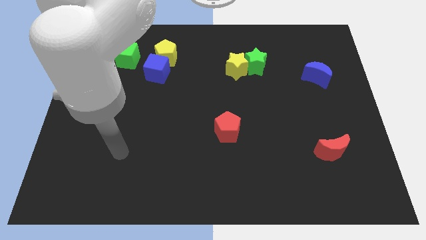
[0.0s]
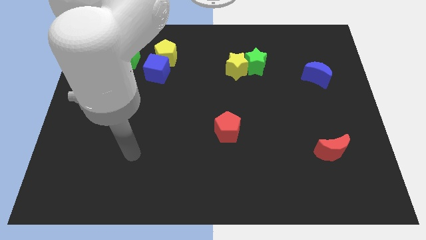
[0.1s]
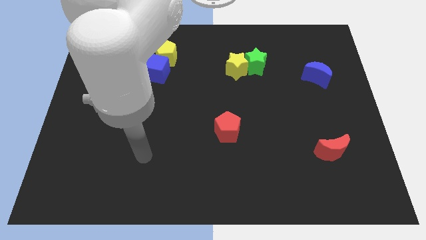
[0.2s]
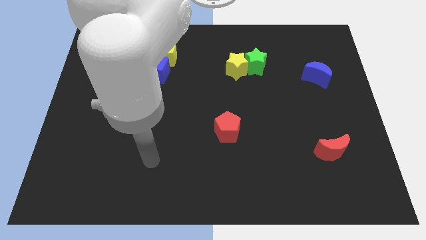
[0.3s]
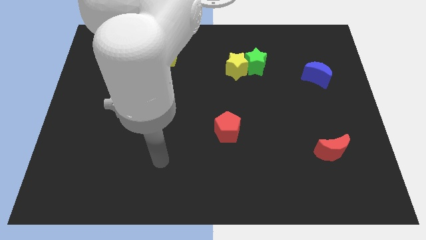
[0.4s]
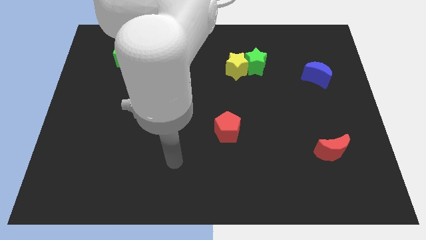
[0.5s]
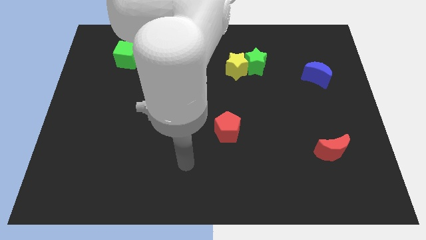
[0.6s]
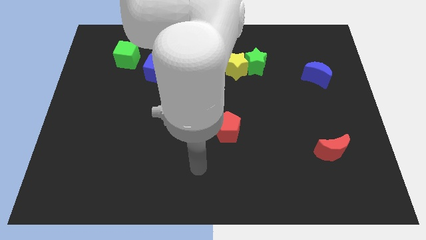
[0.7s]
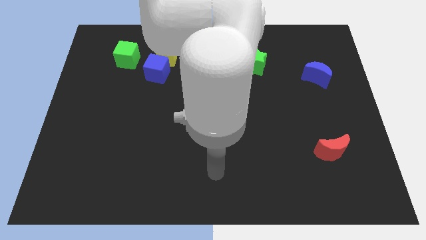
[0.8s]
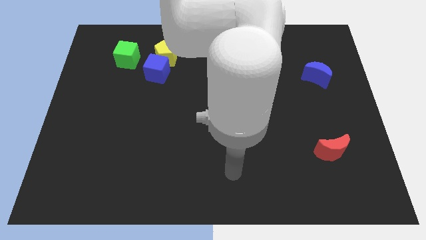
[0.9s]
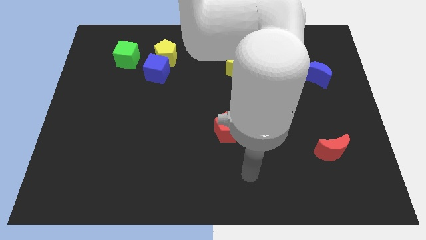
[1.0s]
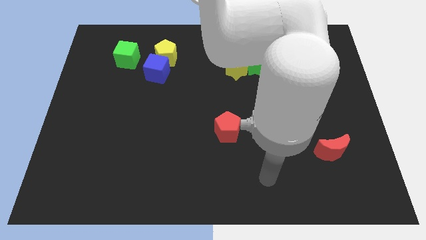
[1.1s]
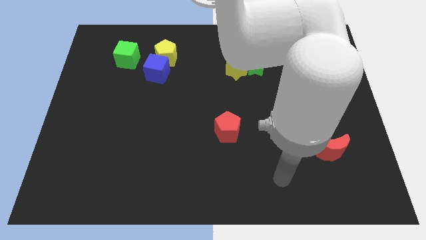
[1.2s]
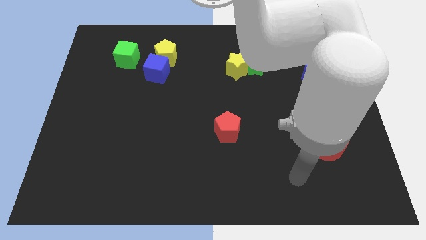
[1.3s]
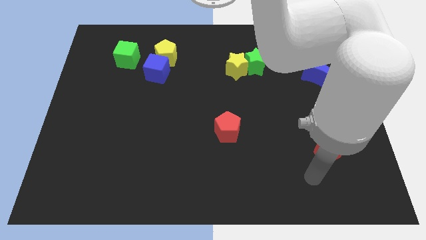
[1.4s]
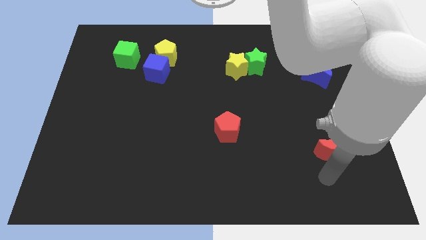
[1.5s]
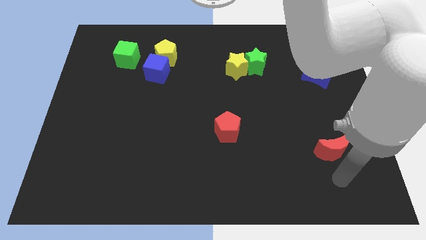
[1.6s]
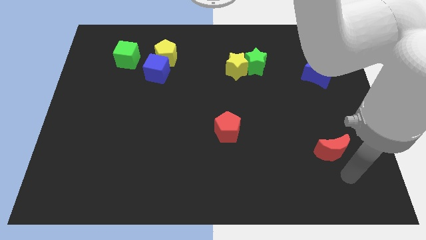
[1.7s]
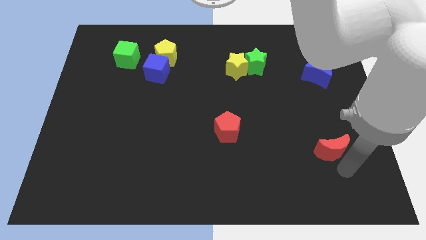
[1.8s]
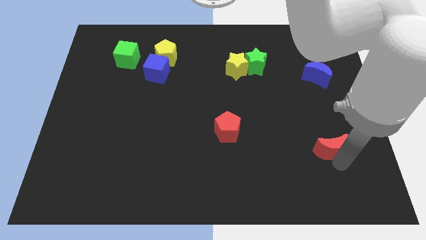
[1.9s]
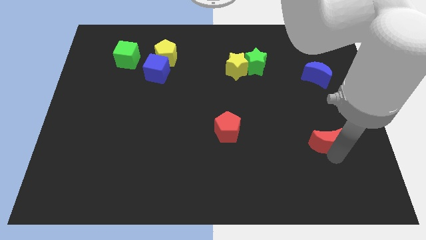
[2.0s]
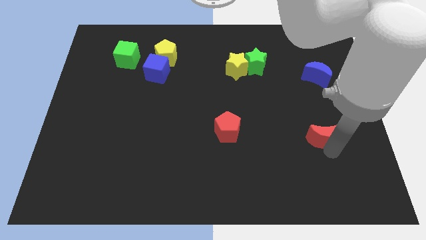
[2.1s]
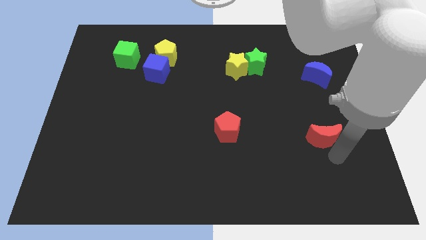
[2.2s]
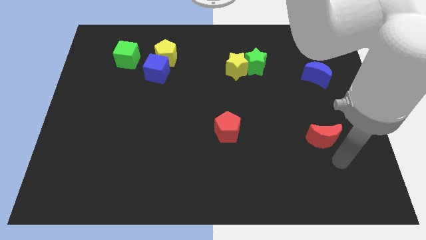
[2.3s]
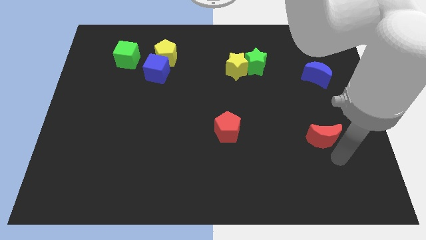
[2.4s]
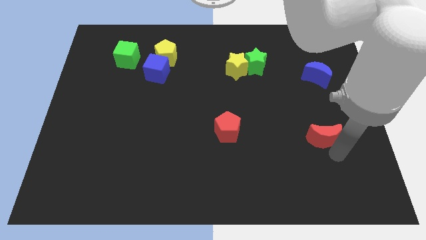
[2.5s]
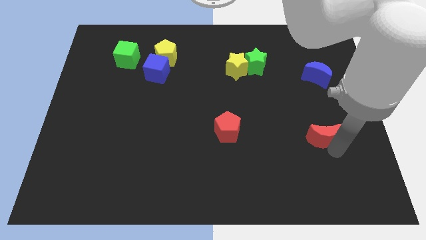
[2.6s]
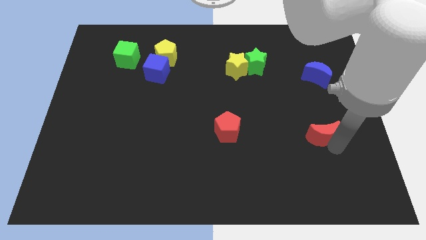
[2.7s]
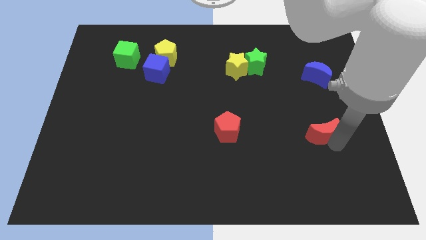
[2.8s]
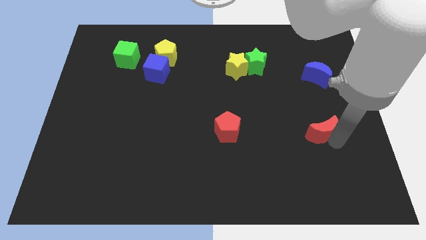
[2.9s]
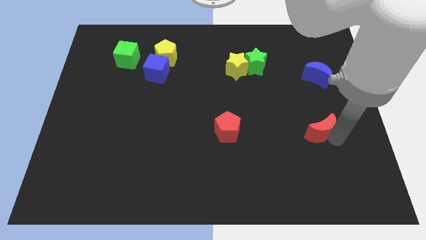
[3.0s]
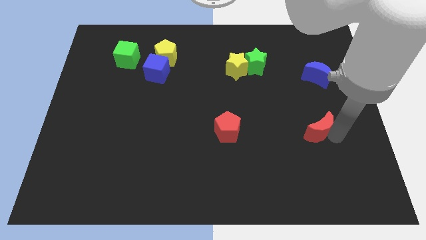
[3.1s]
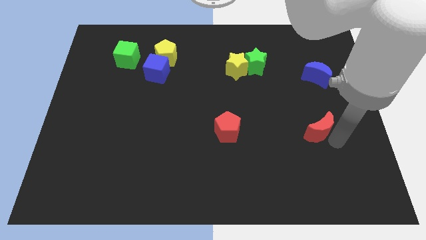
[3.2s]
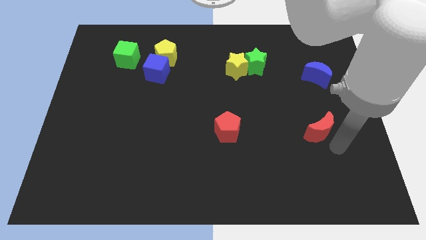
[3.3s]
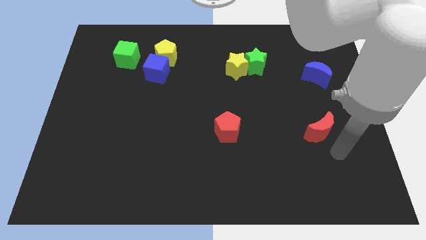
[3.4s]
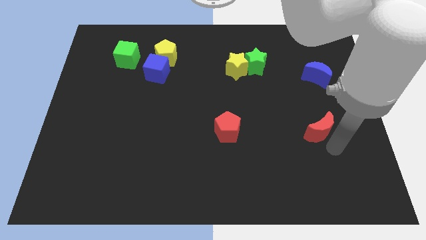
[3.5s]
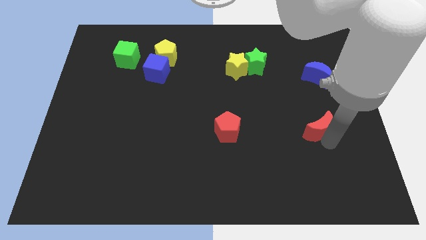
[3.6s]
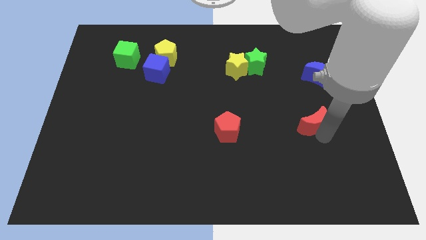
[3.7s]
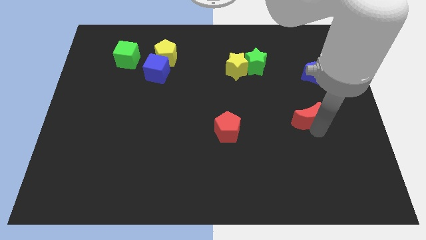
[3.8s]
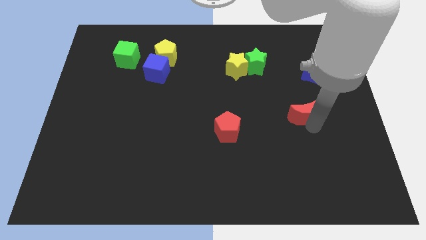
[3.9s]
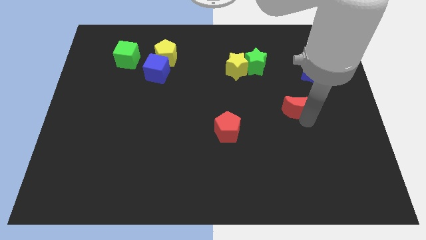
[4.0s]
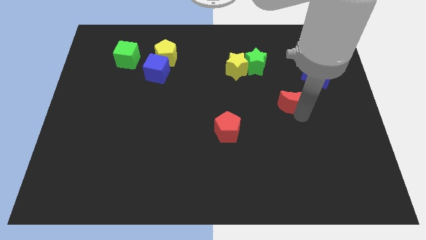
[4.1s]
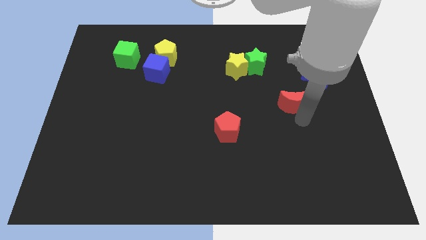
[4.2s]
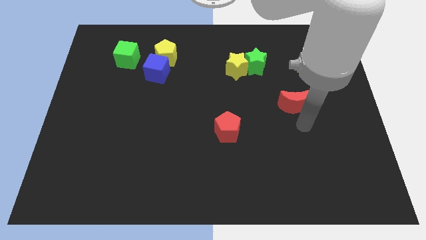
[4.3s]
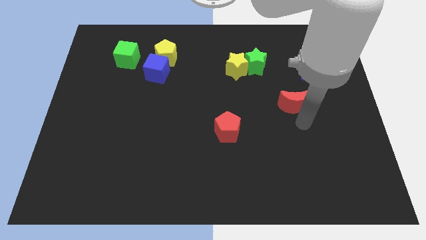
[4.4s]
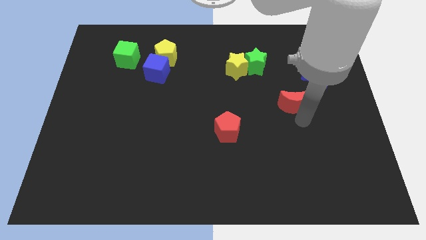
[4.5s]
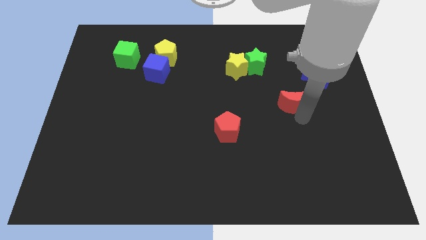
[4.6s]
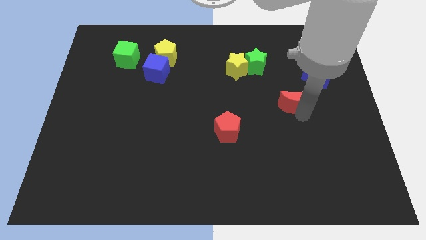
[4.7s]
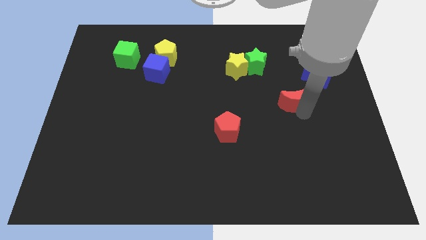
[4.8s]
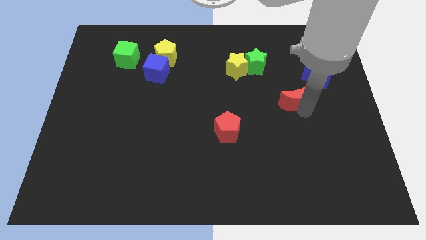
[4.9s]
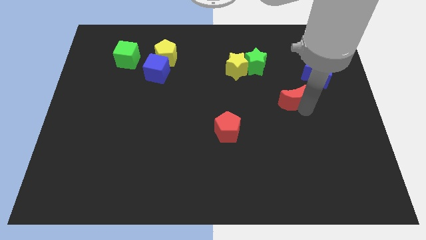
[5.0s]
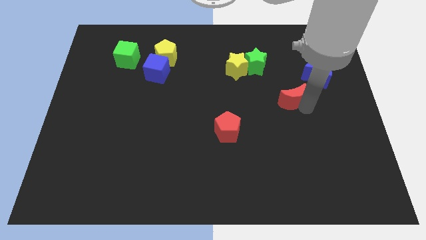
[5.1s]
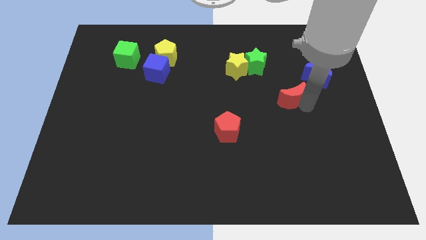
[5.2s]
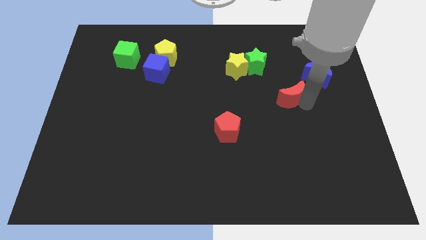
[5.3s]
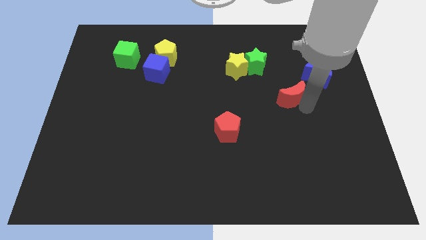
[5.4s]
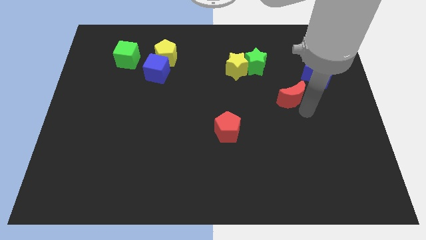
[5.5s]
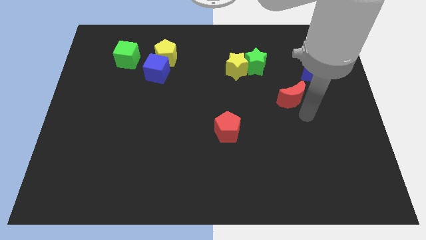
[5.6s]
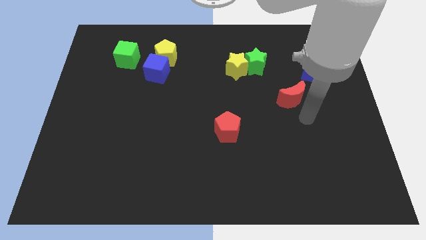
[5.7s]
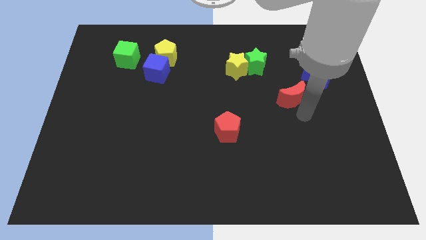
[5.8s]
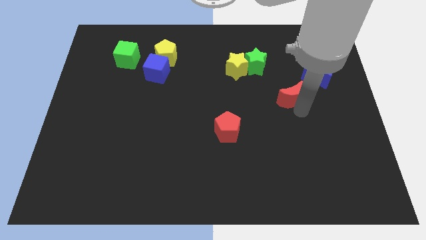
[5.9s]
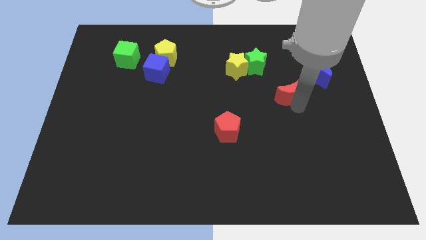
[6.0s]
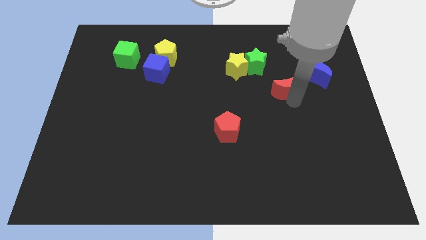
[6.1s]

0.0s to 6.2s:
slide the red moon to the left of the blue moon
